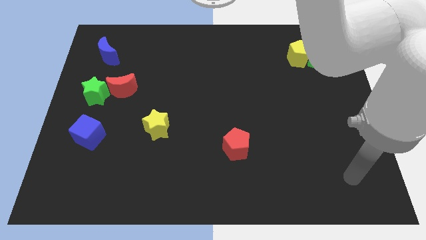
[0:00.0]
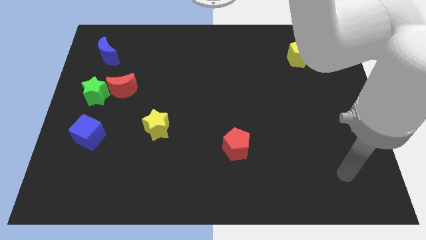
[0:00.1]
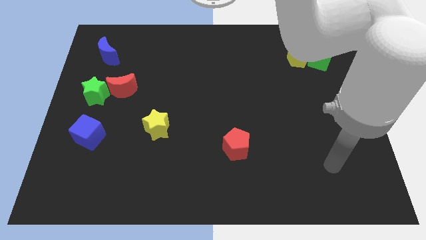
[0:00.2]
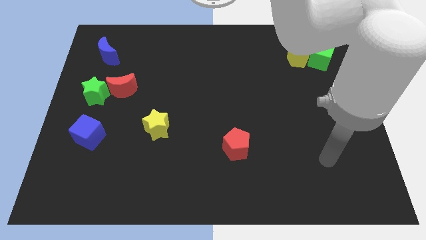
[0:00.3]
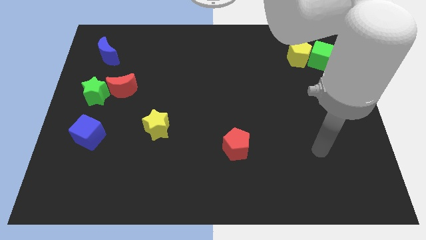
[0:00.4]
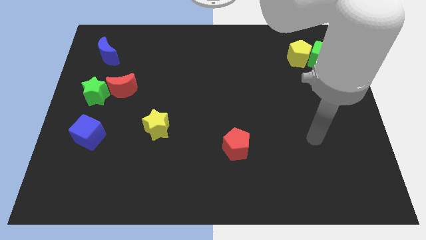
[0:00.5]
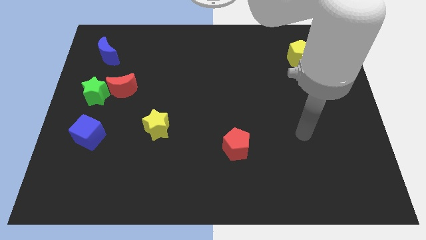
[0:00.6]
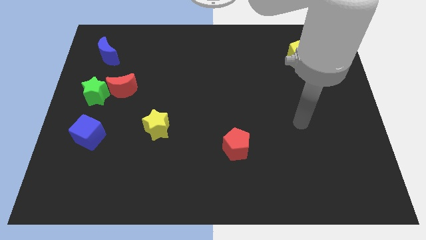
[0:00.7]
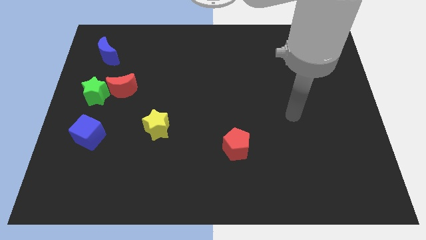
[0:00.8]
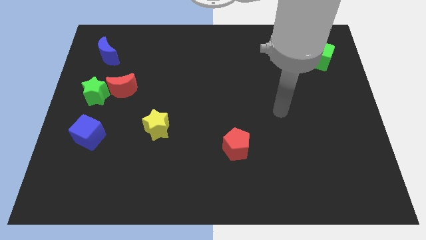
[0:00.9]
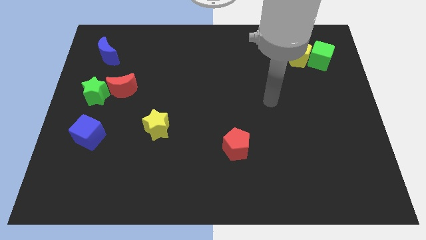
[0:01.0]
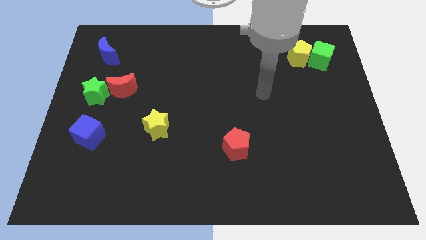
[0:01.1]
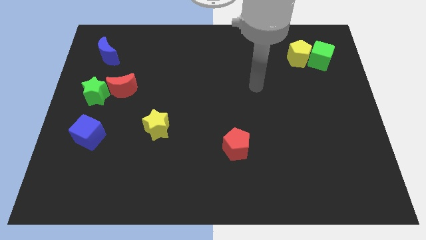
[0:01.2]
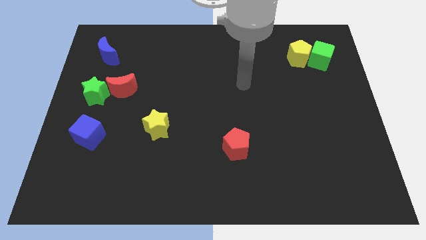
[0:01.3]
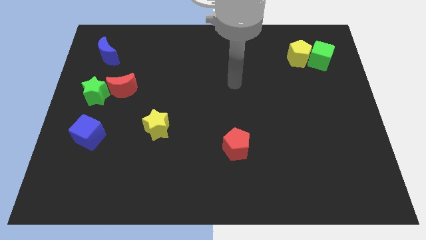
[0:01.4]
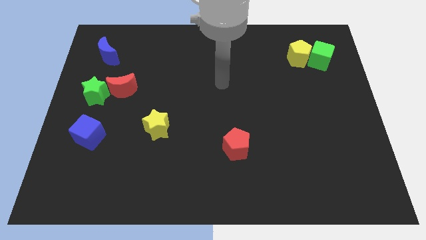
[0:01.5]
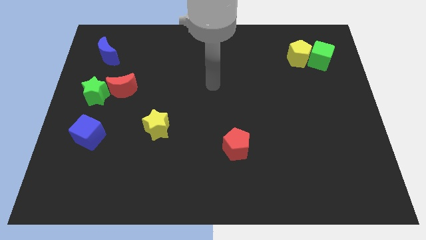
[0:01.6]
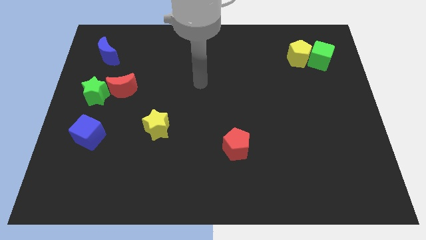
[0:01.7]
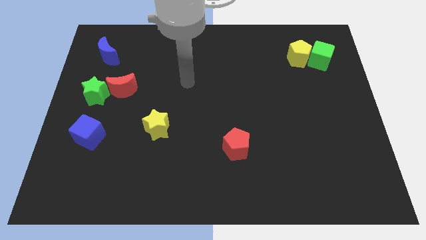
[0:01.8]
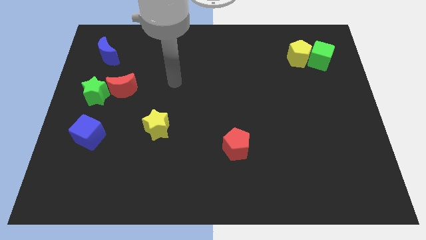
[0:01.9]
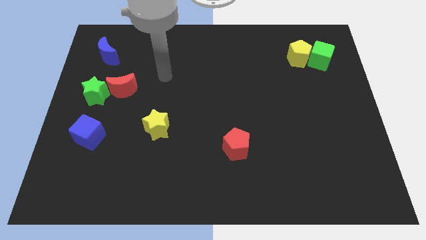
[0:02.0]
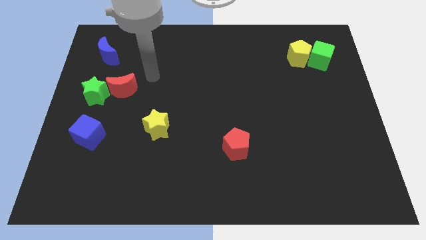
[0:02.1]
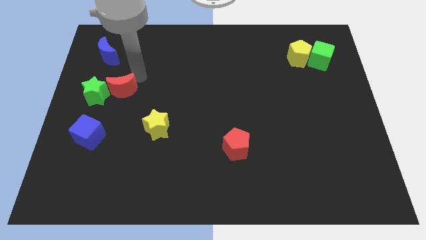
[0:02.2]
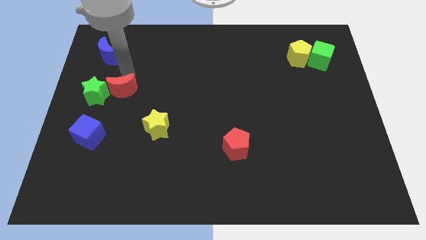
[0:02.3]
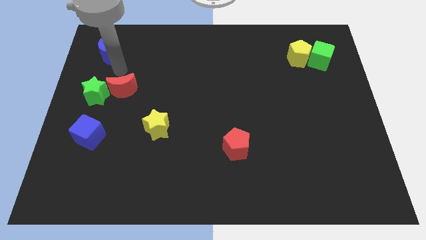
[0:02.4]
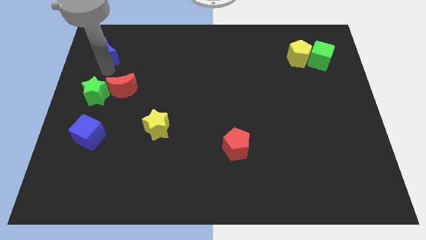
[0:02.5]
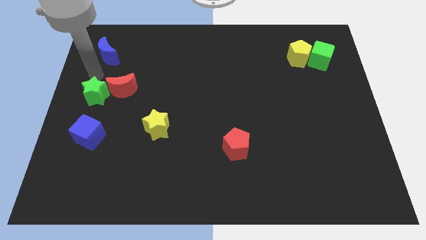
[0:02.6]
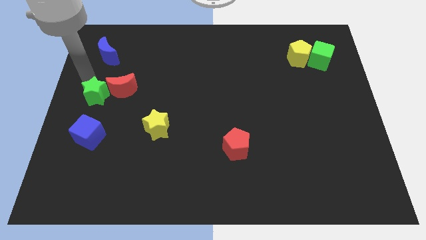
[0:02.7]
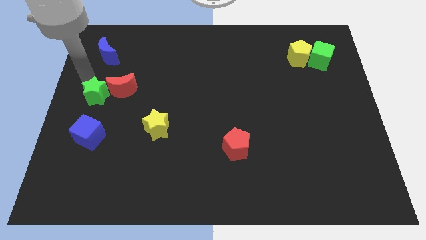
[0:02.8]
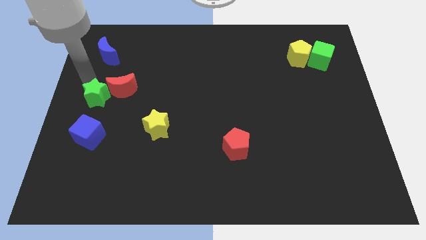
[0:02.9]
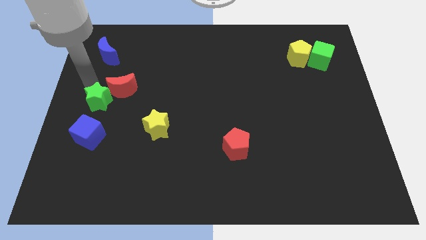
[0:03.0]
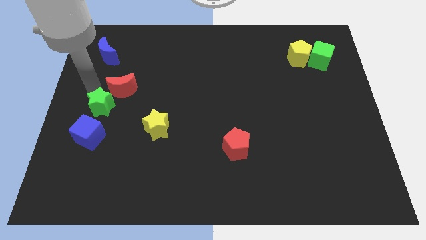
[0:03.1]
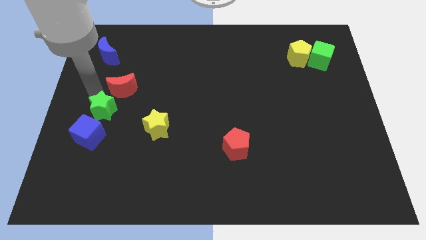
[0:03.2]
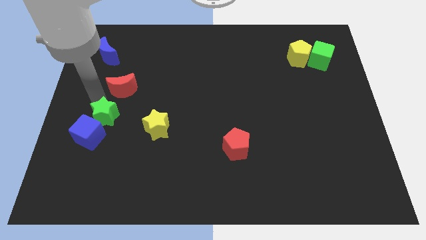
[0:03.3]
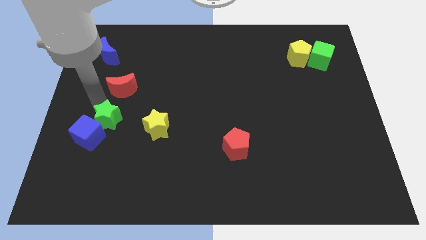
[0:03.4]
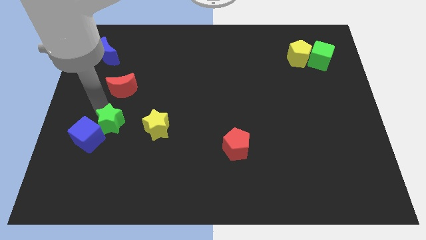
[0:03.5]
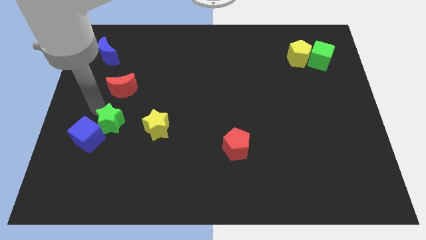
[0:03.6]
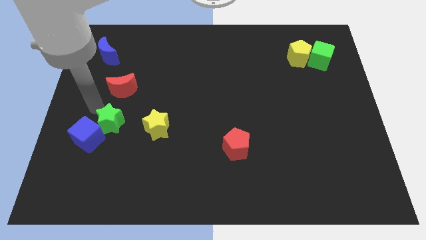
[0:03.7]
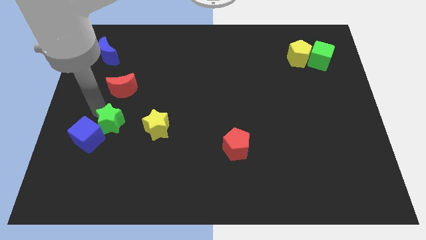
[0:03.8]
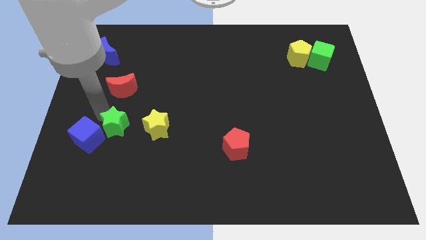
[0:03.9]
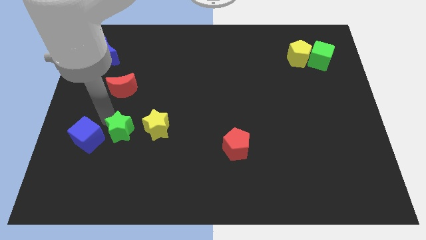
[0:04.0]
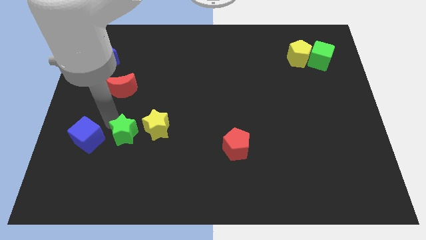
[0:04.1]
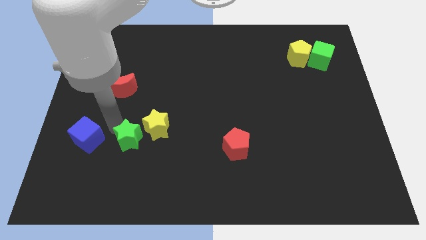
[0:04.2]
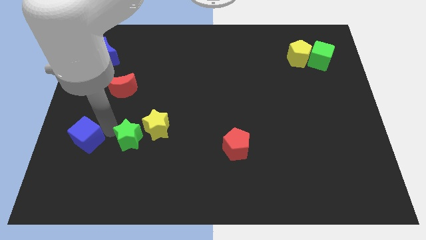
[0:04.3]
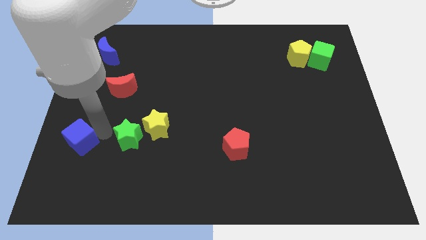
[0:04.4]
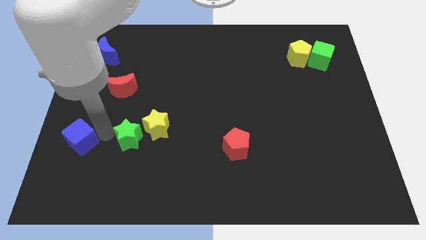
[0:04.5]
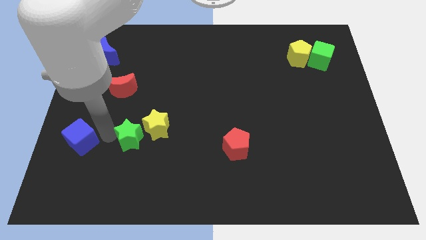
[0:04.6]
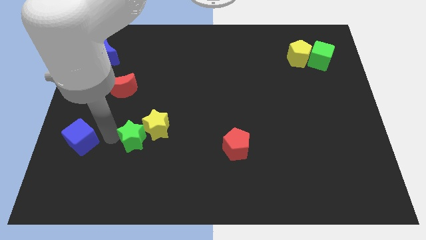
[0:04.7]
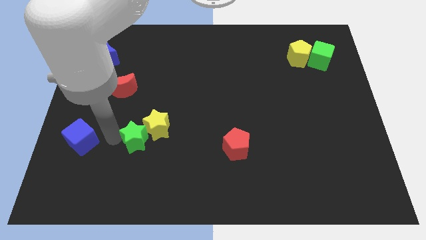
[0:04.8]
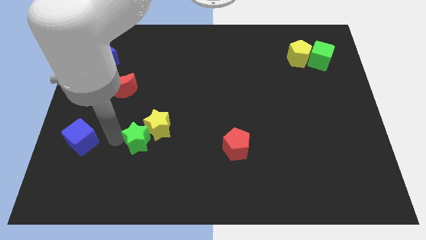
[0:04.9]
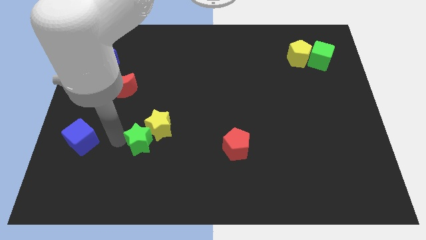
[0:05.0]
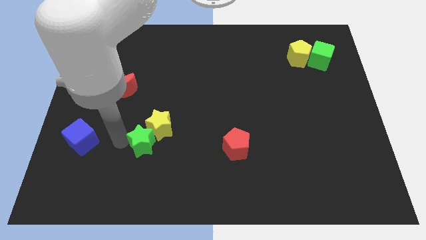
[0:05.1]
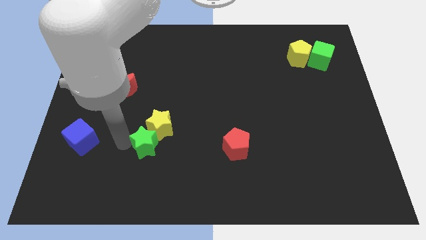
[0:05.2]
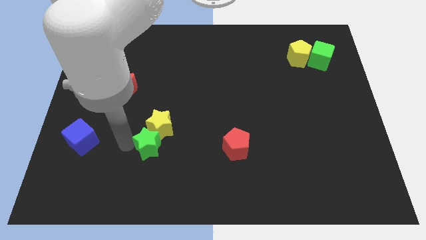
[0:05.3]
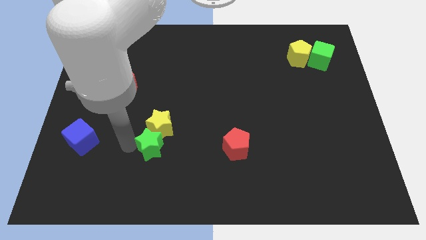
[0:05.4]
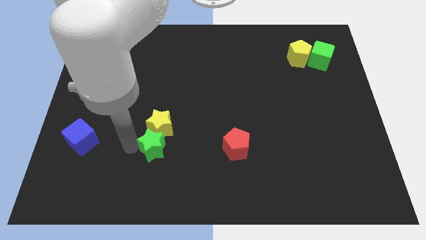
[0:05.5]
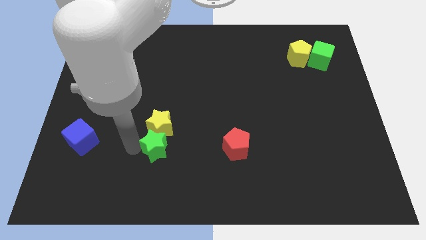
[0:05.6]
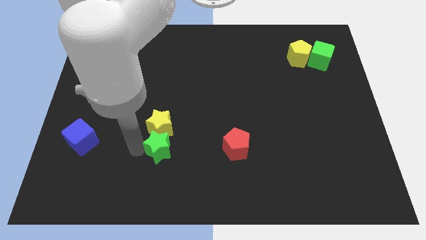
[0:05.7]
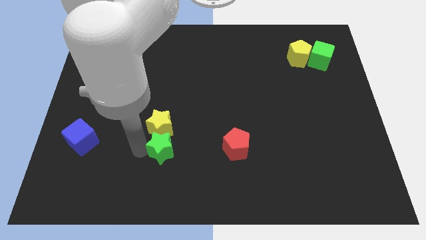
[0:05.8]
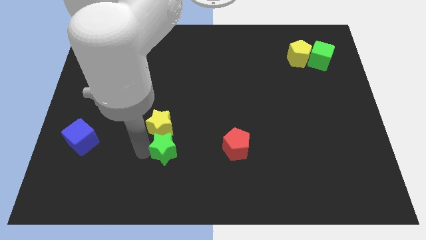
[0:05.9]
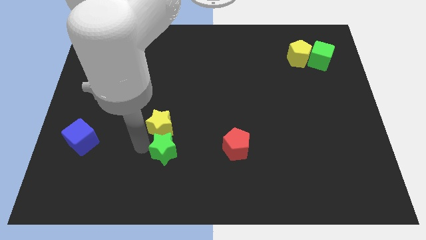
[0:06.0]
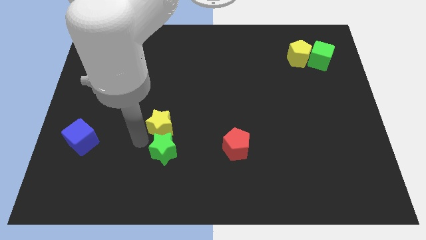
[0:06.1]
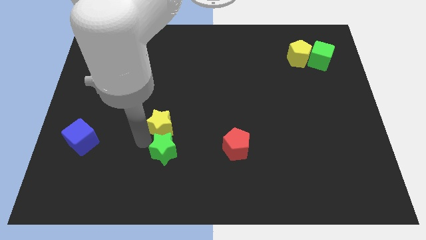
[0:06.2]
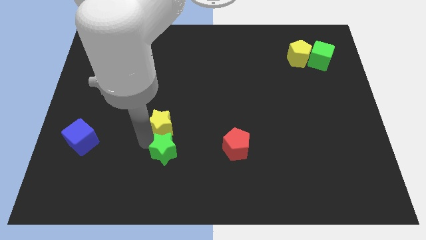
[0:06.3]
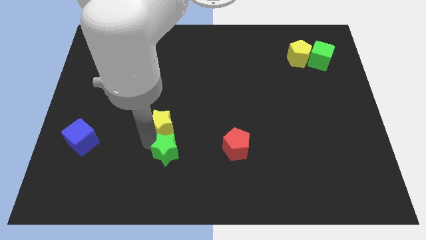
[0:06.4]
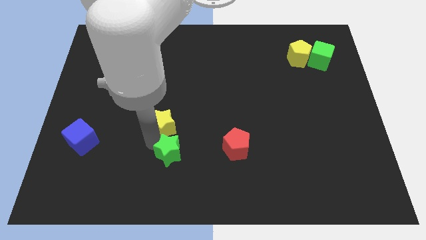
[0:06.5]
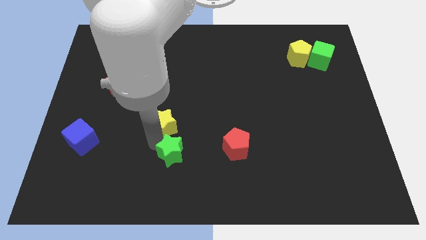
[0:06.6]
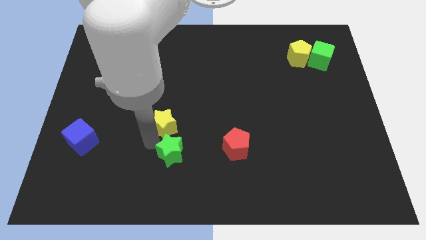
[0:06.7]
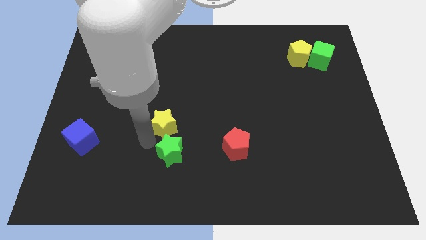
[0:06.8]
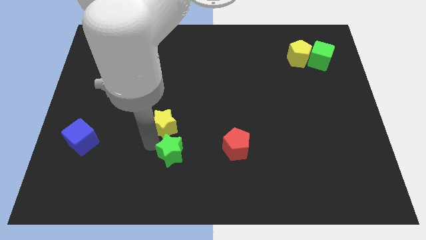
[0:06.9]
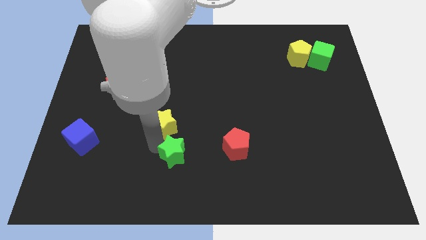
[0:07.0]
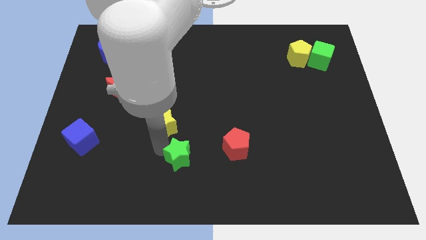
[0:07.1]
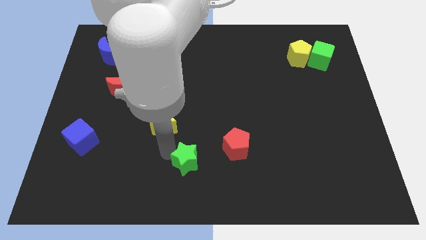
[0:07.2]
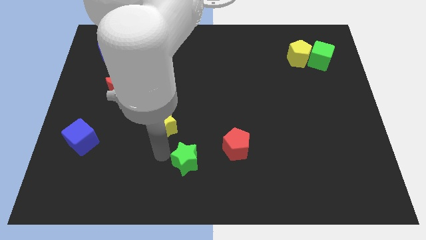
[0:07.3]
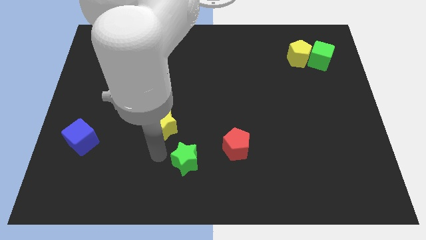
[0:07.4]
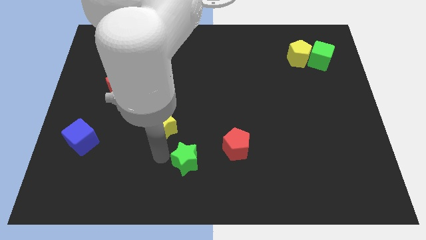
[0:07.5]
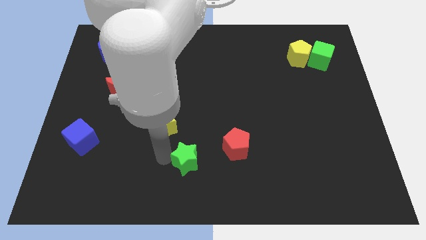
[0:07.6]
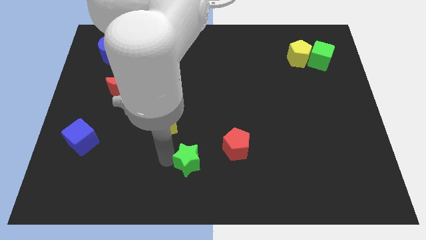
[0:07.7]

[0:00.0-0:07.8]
push the green star to the bottom left of the red pentagon
